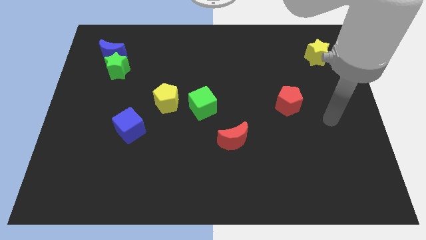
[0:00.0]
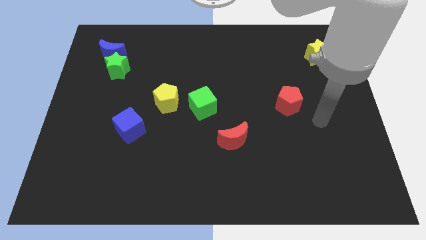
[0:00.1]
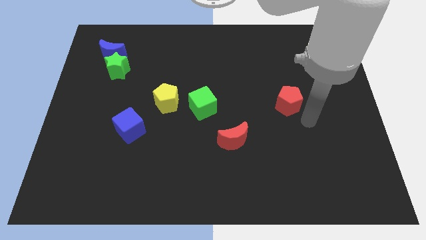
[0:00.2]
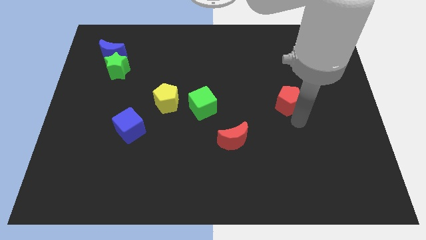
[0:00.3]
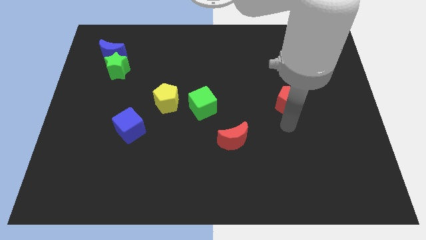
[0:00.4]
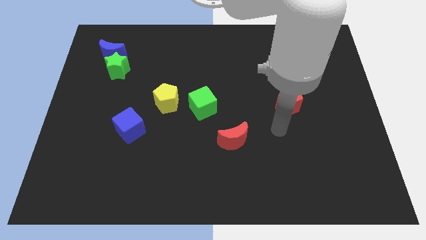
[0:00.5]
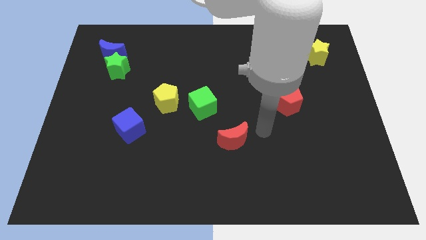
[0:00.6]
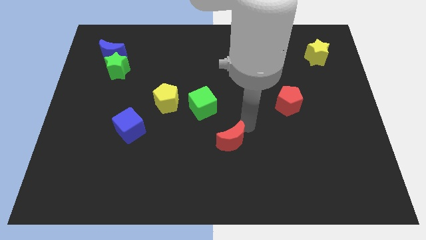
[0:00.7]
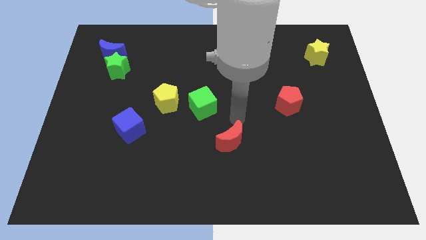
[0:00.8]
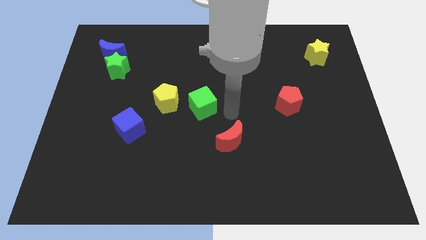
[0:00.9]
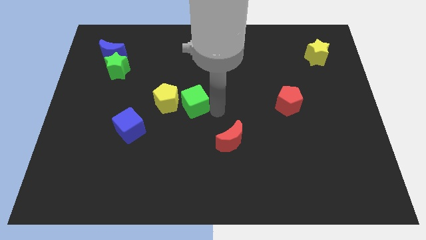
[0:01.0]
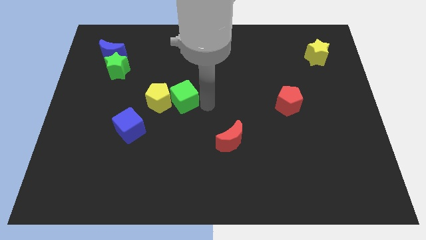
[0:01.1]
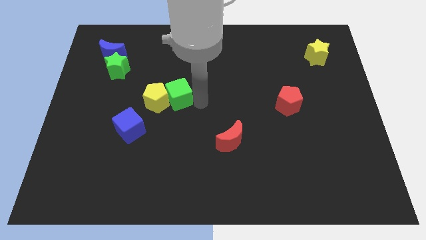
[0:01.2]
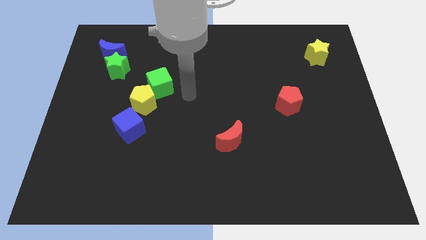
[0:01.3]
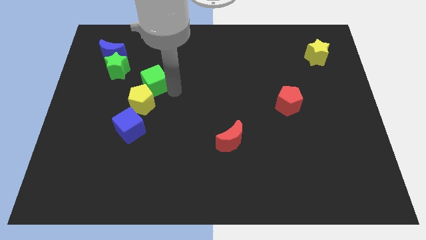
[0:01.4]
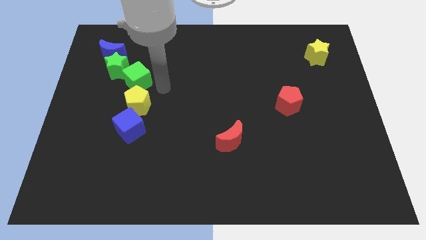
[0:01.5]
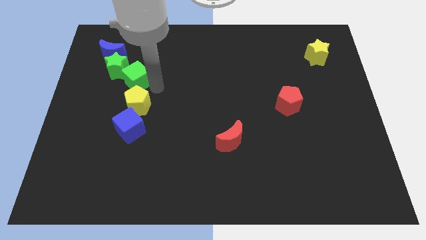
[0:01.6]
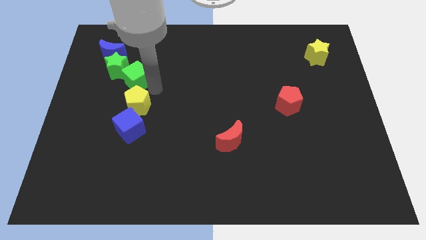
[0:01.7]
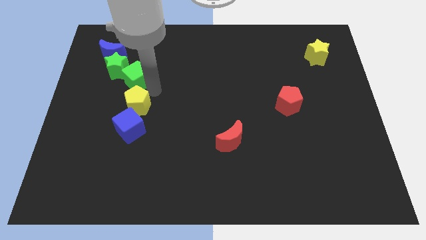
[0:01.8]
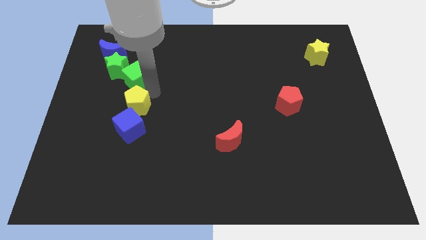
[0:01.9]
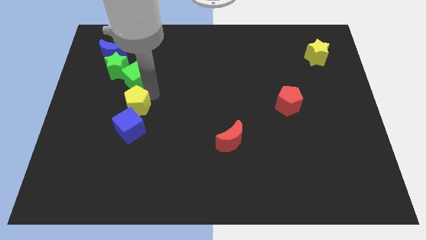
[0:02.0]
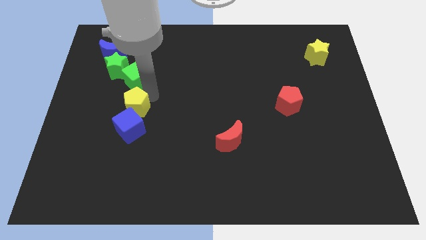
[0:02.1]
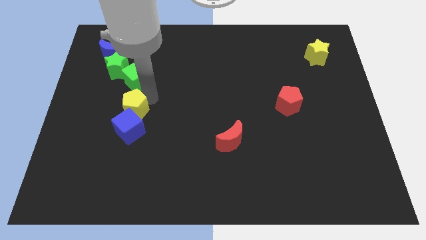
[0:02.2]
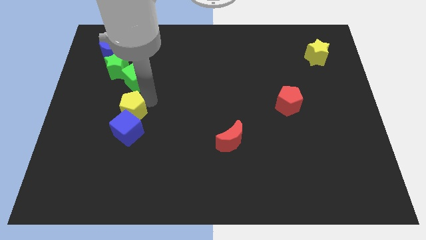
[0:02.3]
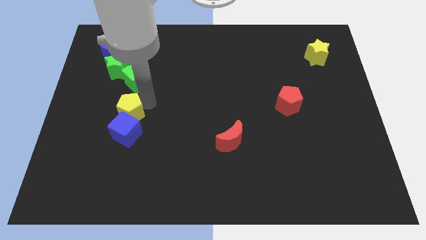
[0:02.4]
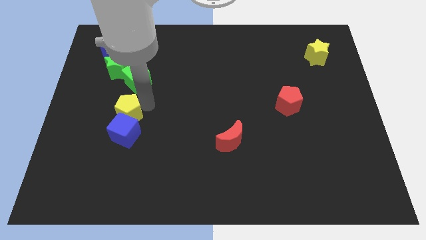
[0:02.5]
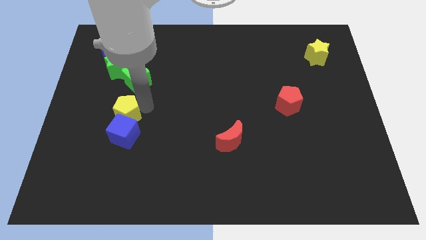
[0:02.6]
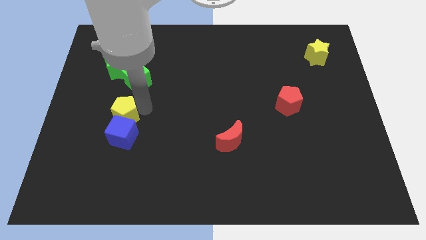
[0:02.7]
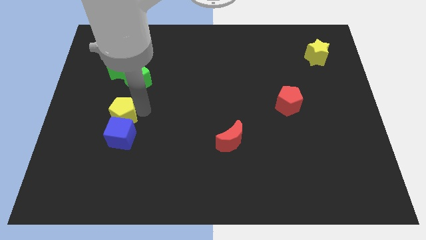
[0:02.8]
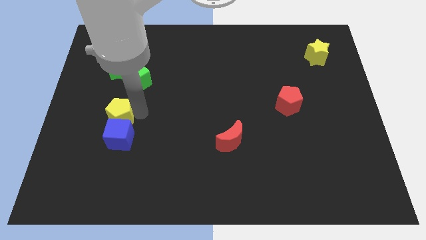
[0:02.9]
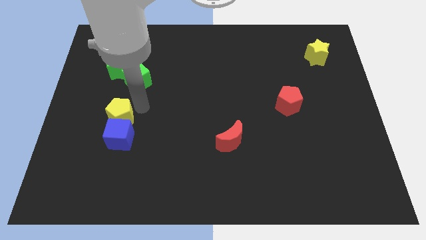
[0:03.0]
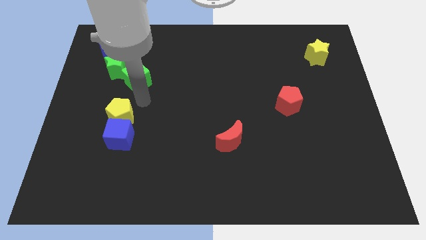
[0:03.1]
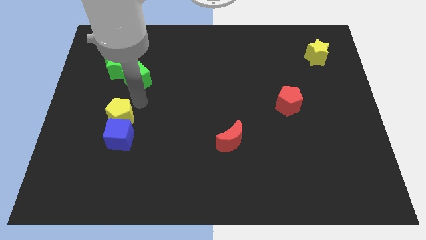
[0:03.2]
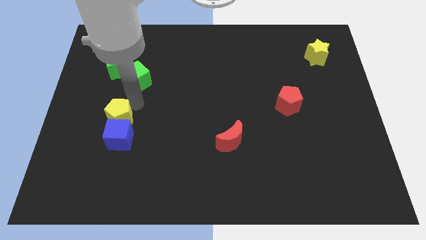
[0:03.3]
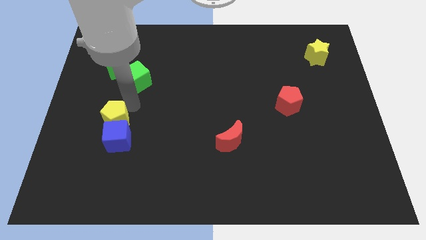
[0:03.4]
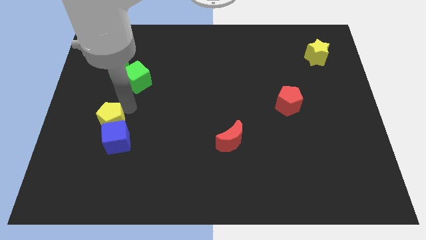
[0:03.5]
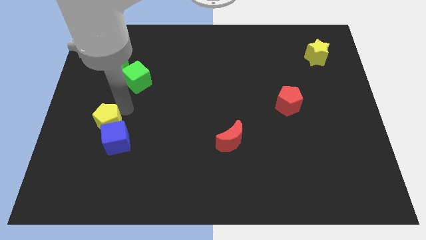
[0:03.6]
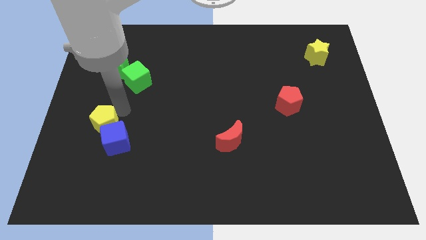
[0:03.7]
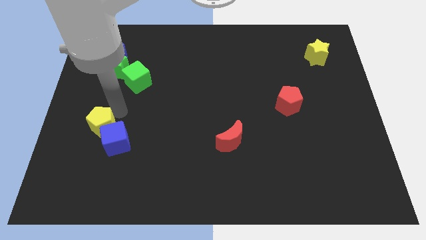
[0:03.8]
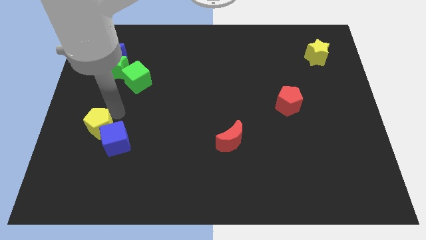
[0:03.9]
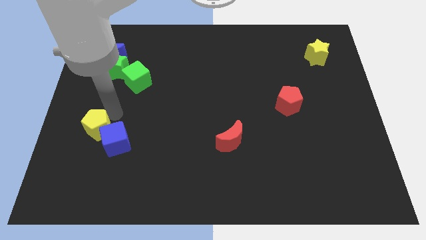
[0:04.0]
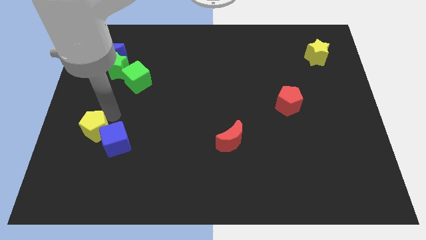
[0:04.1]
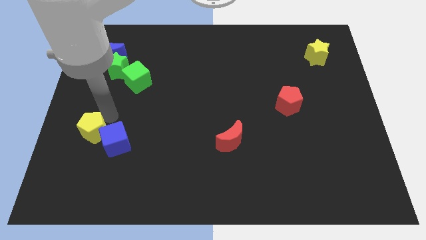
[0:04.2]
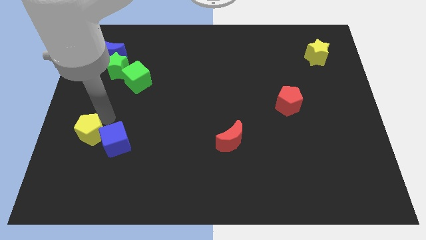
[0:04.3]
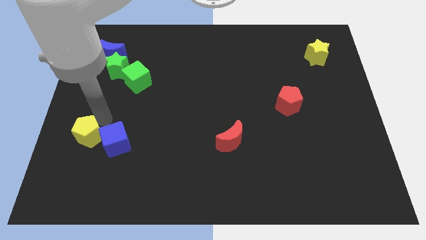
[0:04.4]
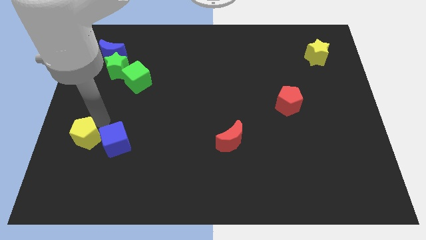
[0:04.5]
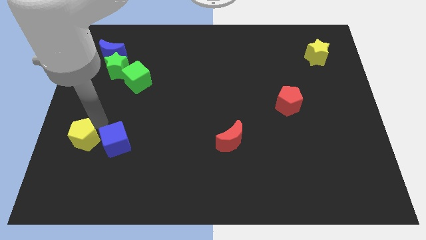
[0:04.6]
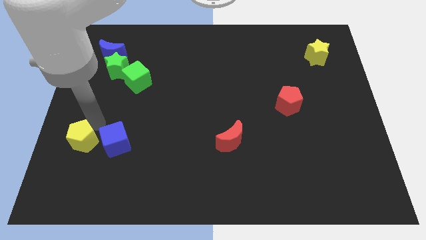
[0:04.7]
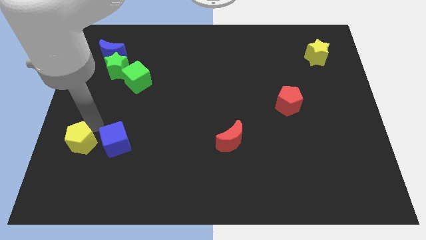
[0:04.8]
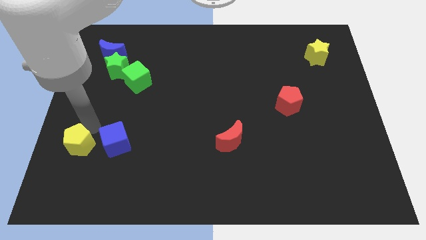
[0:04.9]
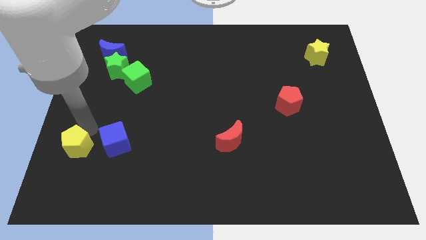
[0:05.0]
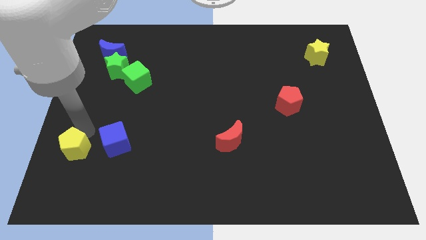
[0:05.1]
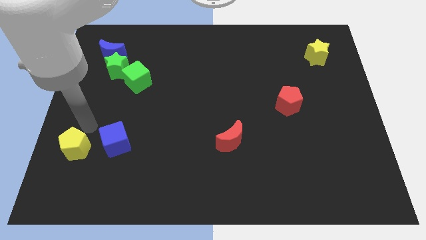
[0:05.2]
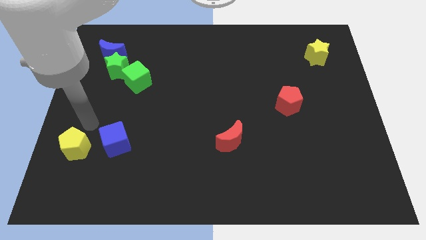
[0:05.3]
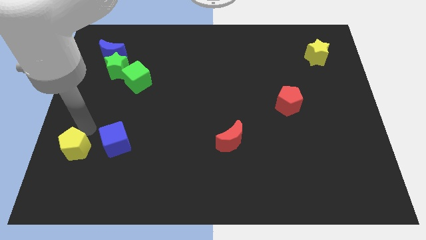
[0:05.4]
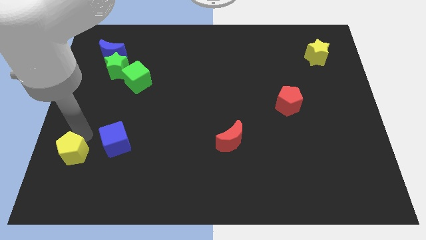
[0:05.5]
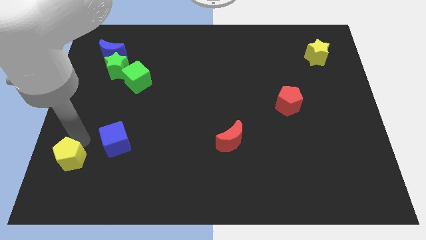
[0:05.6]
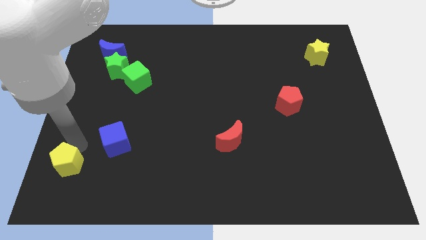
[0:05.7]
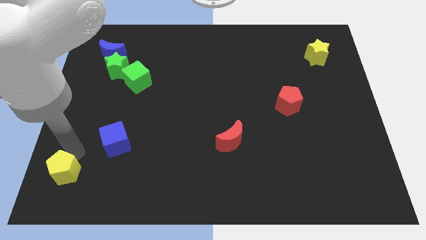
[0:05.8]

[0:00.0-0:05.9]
move the yellow pentagon to the bottom left of the board

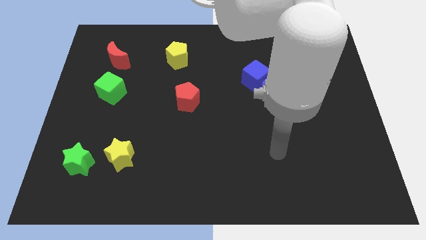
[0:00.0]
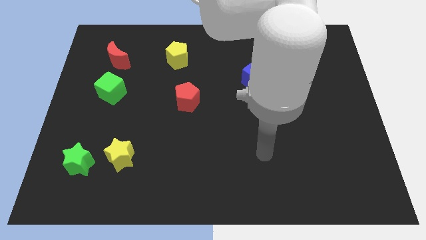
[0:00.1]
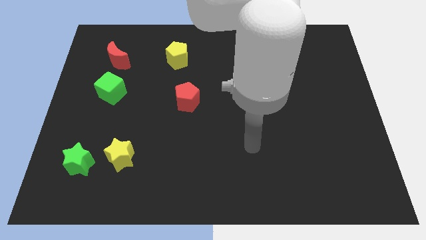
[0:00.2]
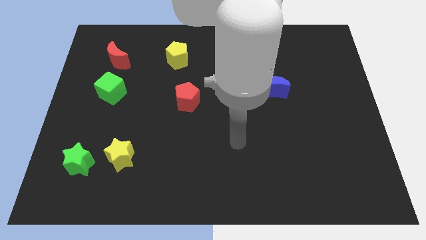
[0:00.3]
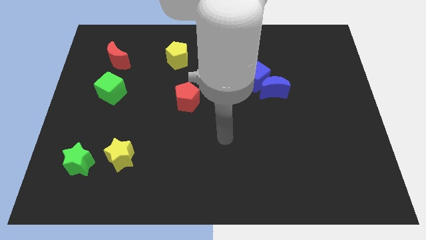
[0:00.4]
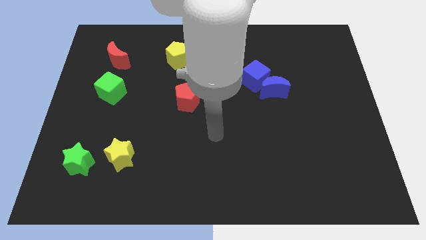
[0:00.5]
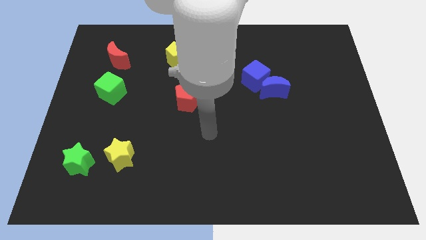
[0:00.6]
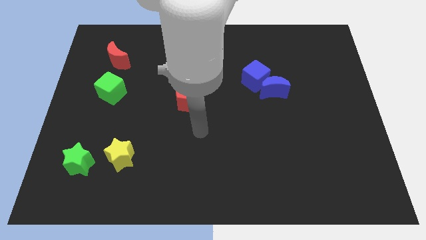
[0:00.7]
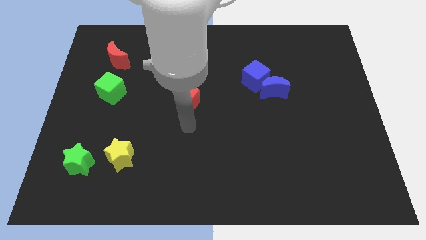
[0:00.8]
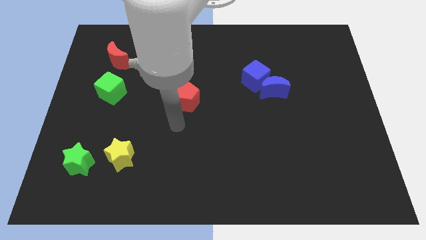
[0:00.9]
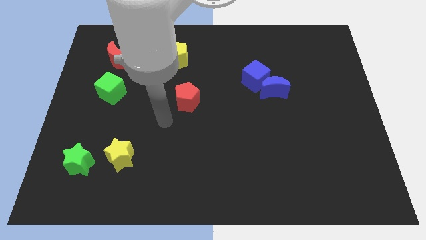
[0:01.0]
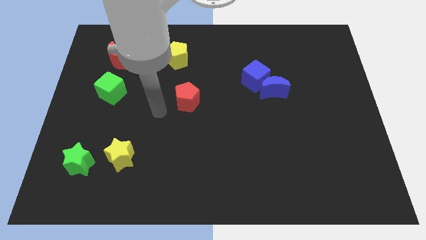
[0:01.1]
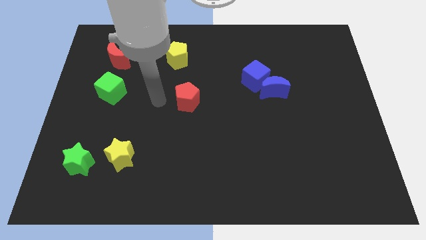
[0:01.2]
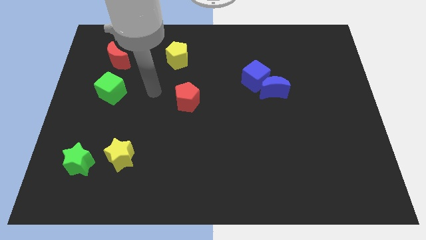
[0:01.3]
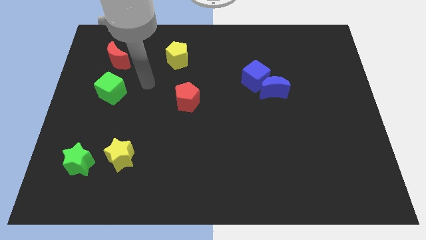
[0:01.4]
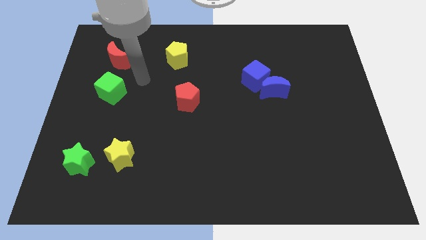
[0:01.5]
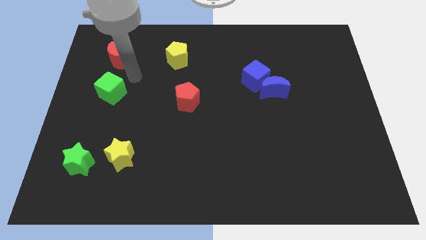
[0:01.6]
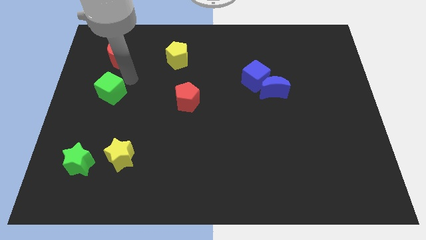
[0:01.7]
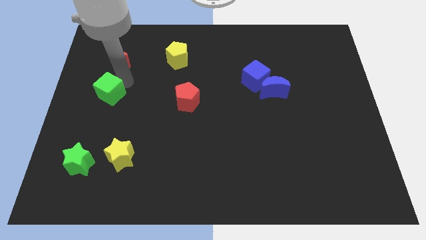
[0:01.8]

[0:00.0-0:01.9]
put the green cube to the left side of the board
